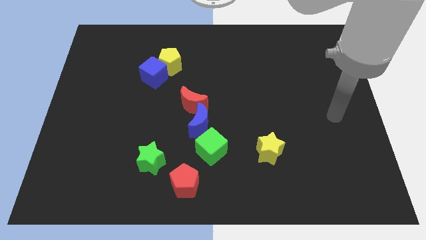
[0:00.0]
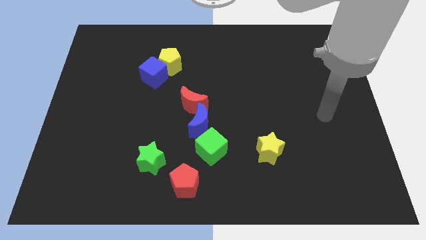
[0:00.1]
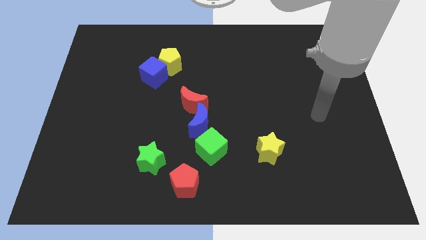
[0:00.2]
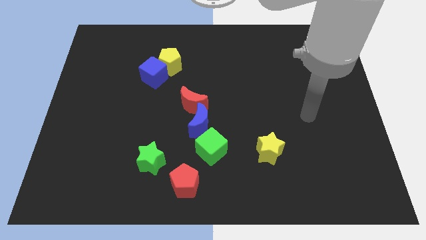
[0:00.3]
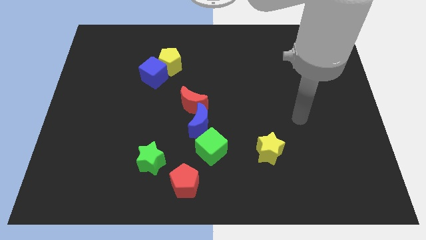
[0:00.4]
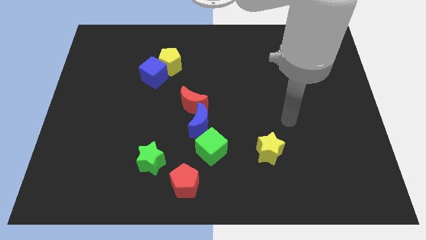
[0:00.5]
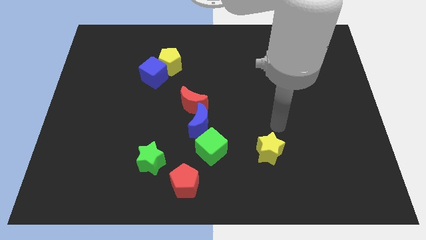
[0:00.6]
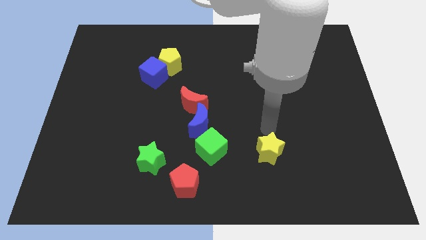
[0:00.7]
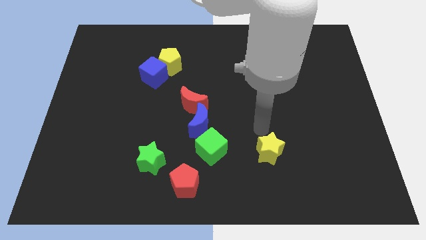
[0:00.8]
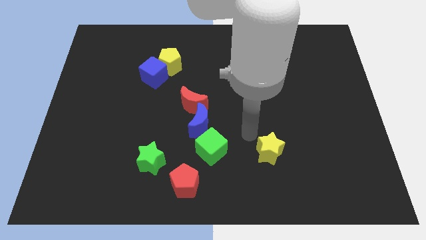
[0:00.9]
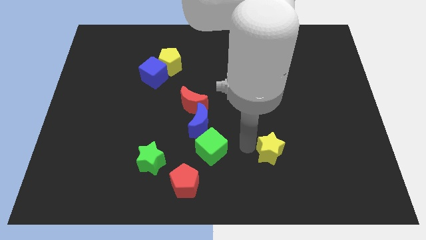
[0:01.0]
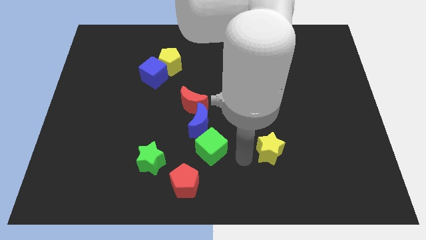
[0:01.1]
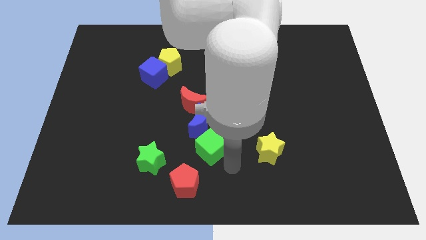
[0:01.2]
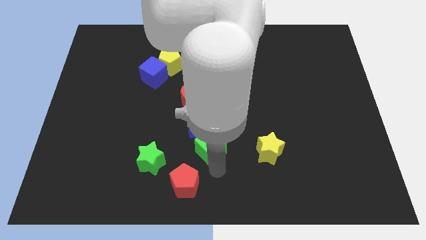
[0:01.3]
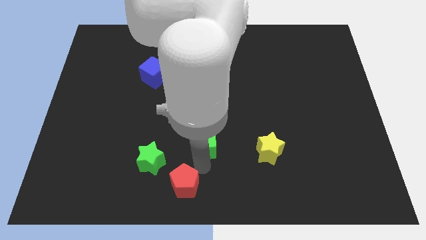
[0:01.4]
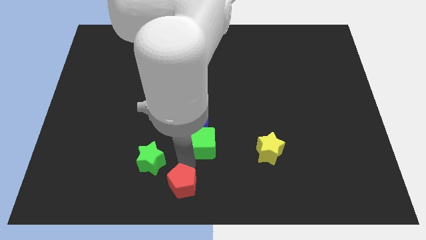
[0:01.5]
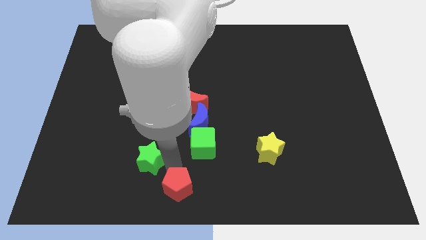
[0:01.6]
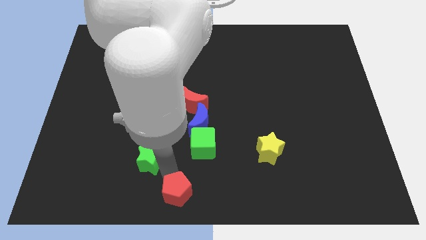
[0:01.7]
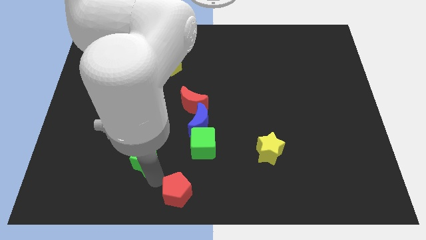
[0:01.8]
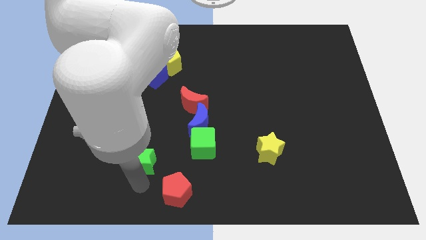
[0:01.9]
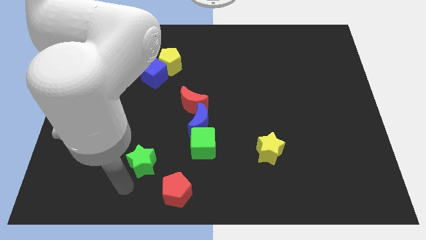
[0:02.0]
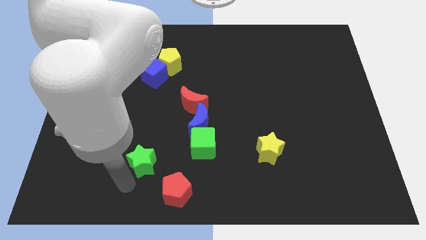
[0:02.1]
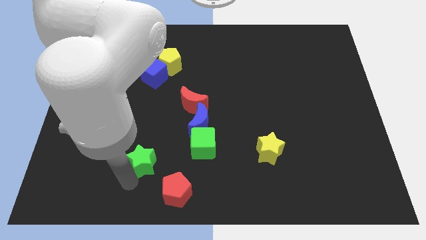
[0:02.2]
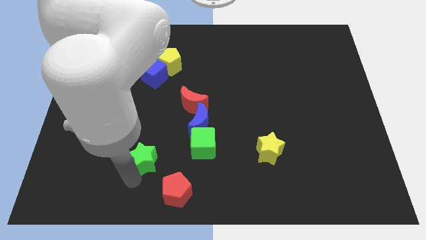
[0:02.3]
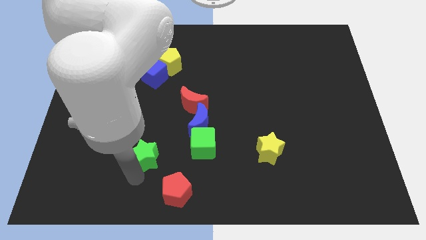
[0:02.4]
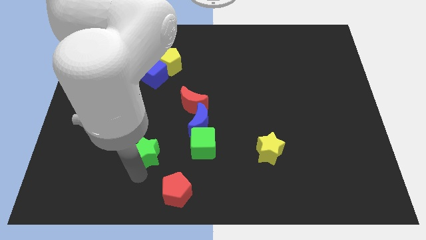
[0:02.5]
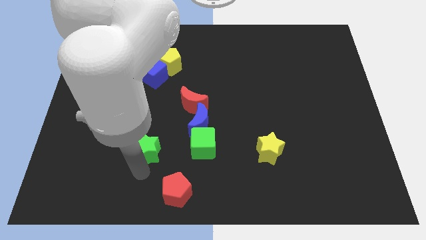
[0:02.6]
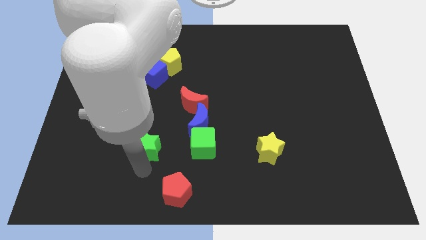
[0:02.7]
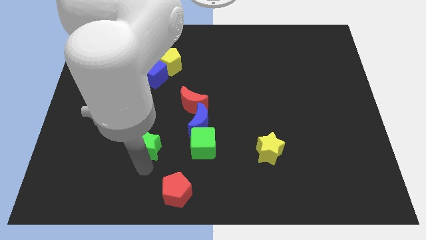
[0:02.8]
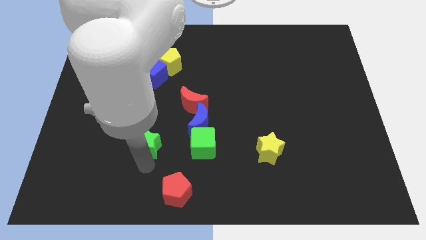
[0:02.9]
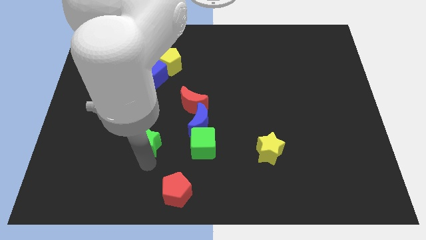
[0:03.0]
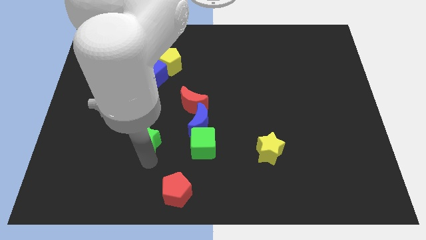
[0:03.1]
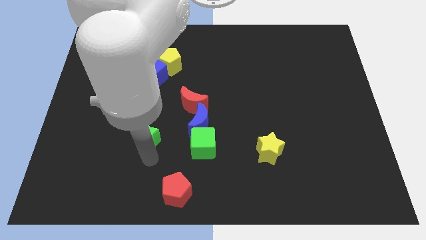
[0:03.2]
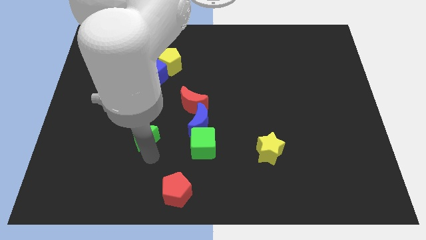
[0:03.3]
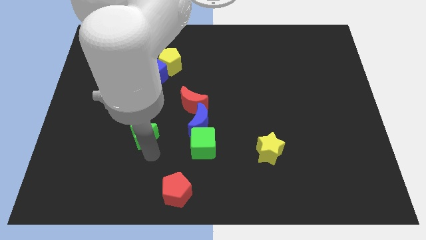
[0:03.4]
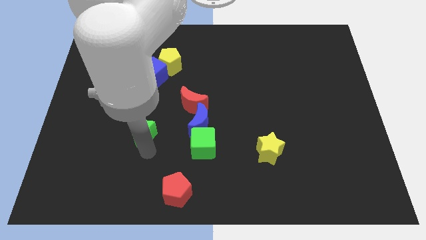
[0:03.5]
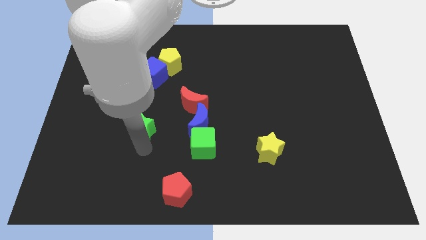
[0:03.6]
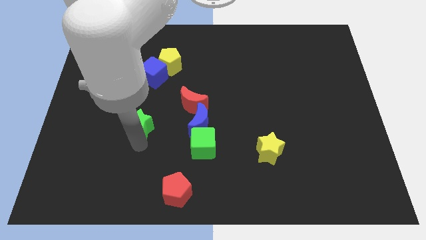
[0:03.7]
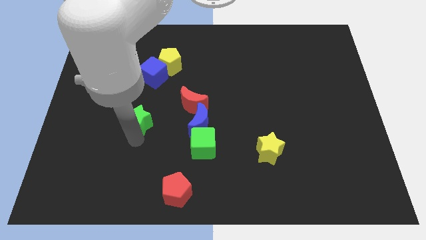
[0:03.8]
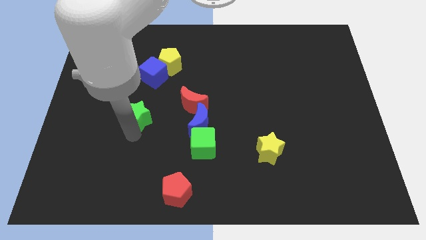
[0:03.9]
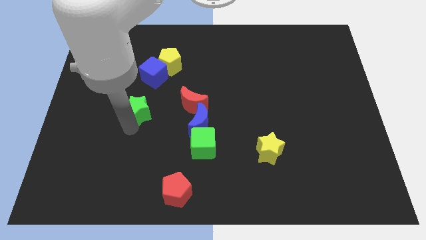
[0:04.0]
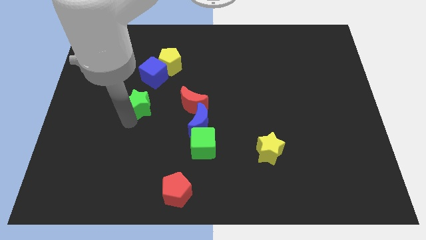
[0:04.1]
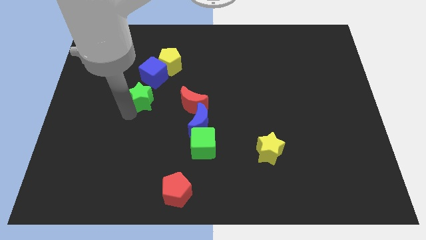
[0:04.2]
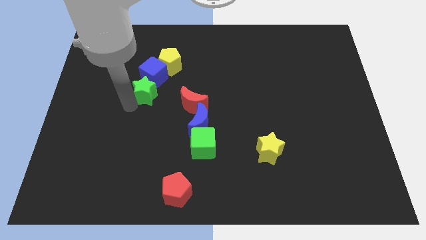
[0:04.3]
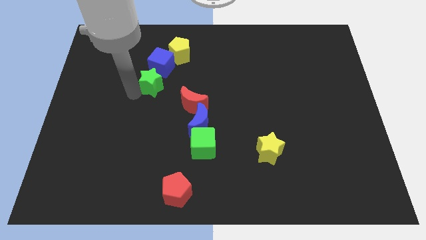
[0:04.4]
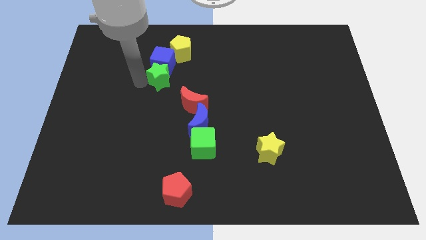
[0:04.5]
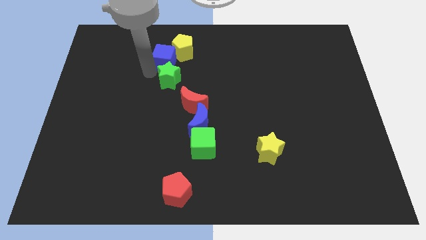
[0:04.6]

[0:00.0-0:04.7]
put the green star to the center

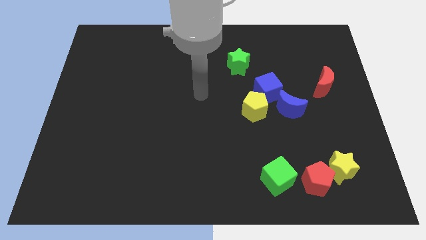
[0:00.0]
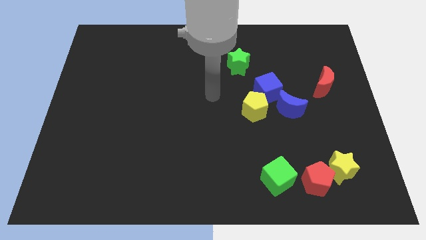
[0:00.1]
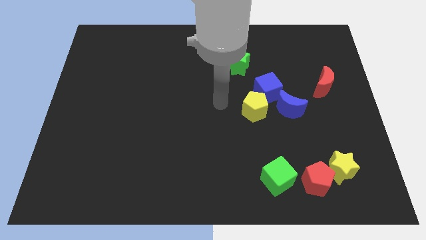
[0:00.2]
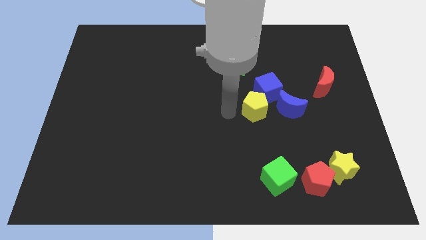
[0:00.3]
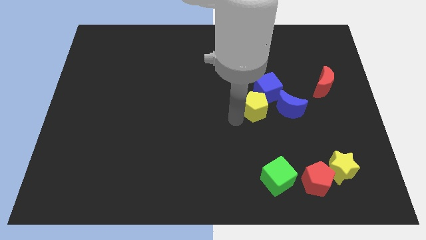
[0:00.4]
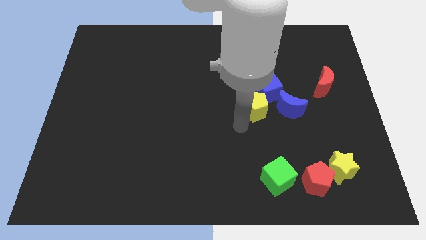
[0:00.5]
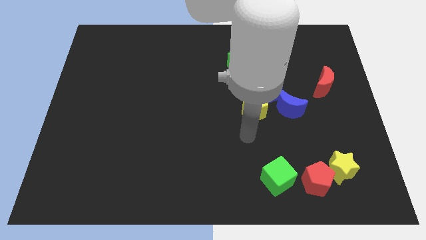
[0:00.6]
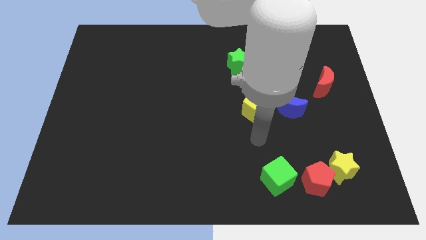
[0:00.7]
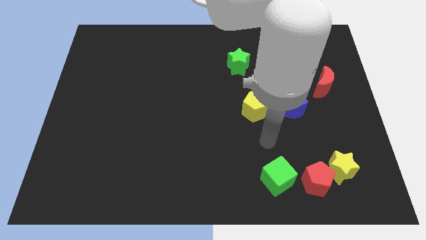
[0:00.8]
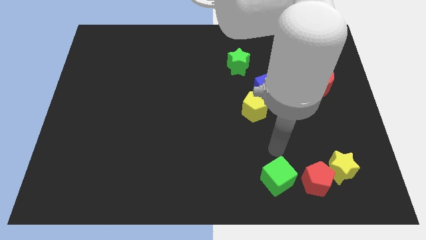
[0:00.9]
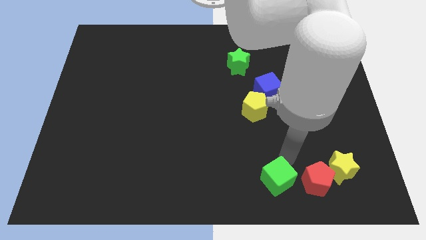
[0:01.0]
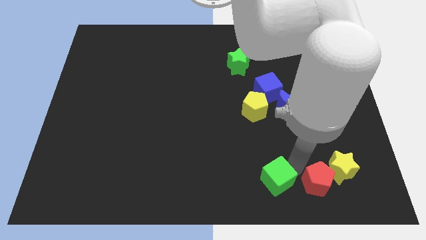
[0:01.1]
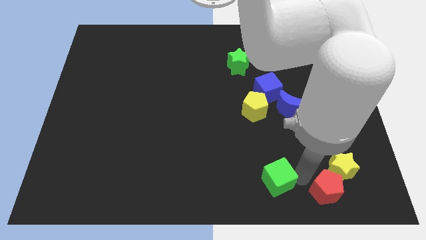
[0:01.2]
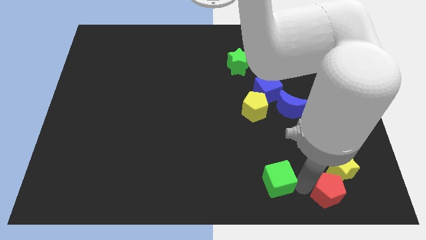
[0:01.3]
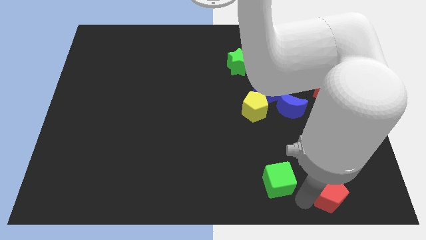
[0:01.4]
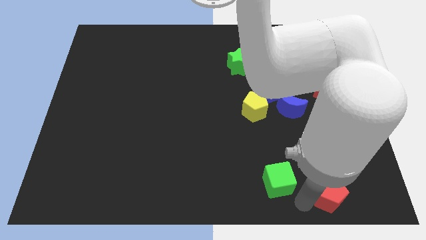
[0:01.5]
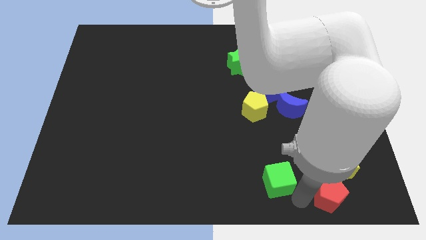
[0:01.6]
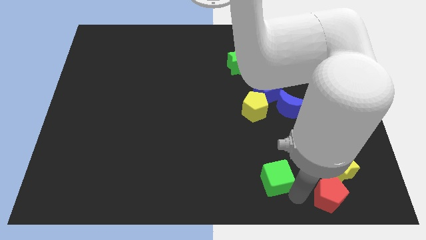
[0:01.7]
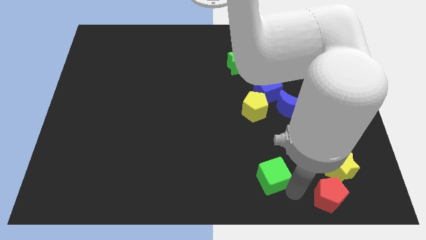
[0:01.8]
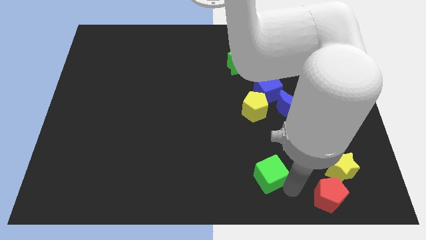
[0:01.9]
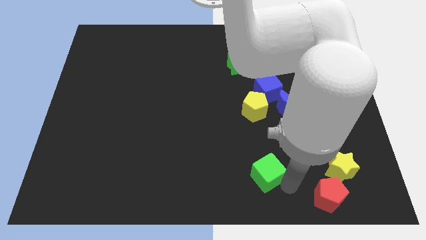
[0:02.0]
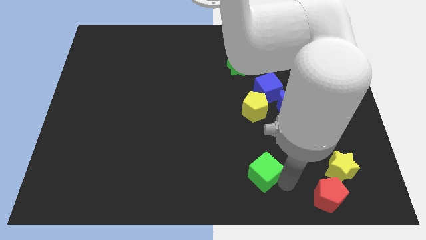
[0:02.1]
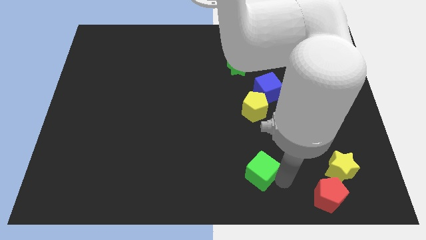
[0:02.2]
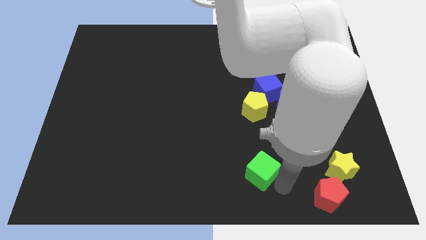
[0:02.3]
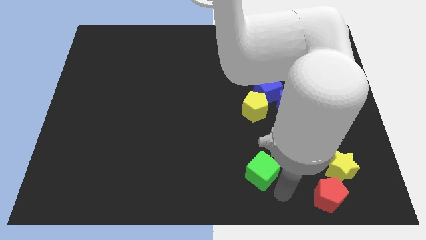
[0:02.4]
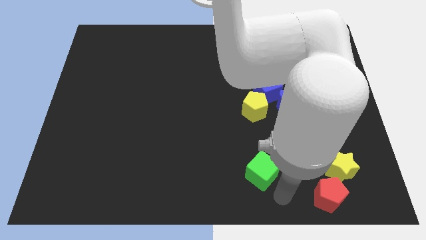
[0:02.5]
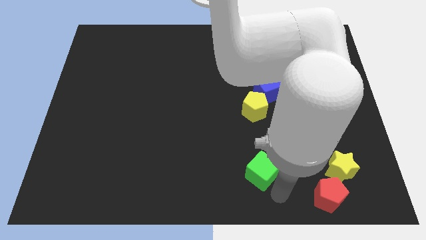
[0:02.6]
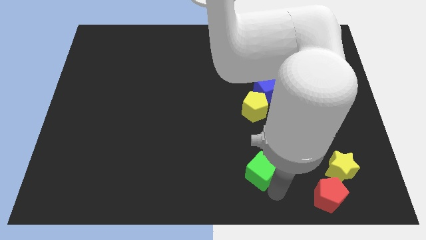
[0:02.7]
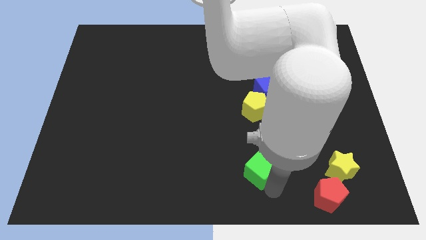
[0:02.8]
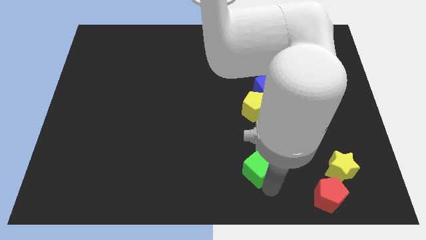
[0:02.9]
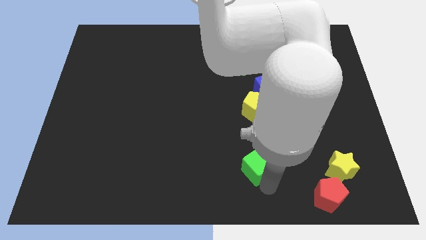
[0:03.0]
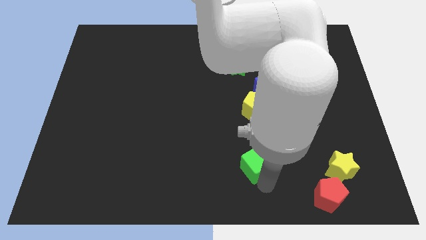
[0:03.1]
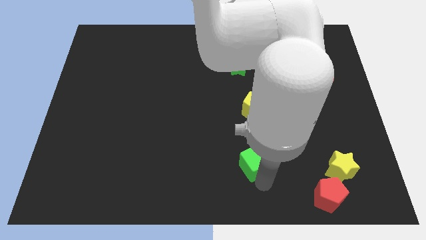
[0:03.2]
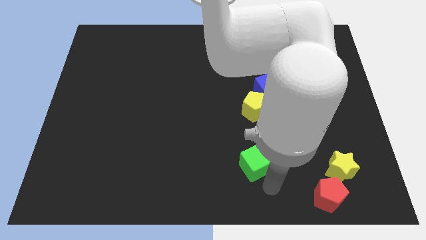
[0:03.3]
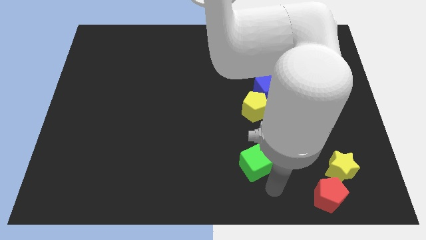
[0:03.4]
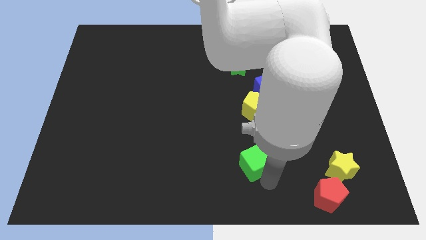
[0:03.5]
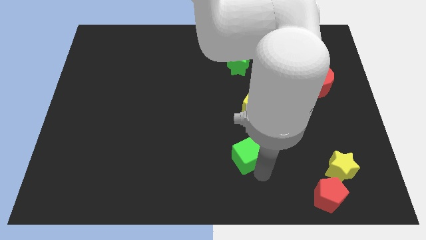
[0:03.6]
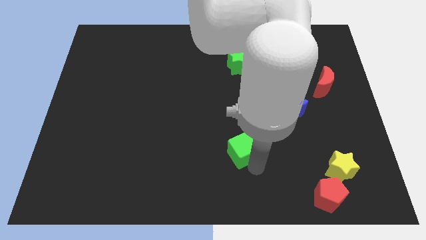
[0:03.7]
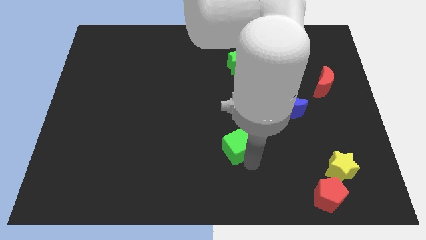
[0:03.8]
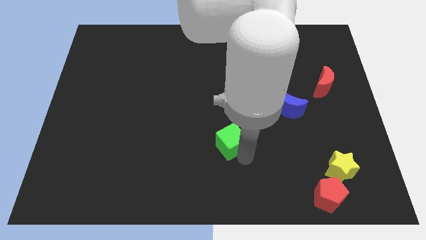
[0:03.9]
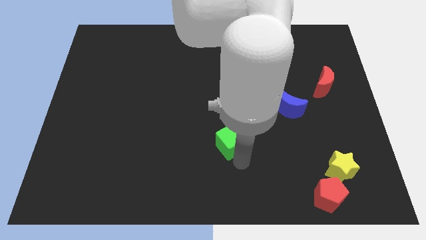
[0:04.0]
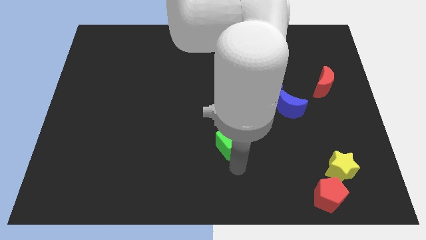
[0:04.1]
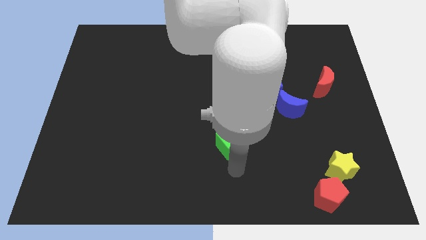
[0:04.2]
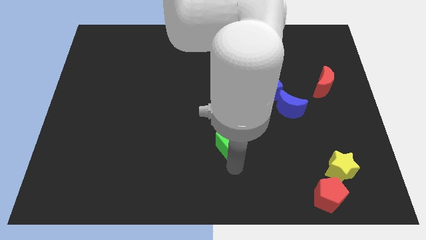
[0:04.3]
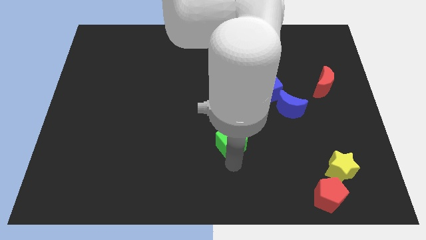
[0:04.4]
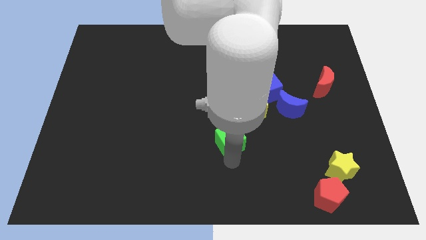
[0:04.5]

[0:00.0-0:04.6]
slide the green cube to the center of the board
